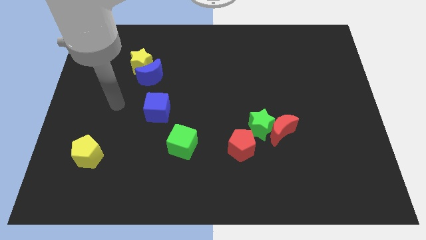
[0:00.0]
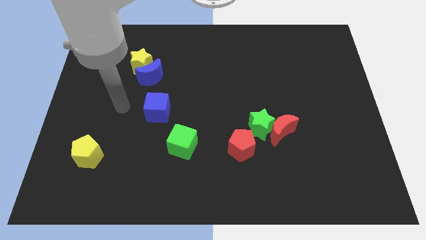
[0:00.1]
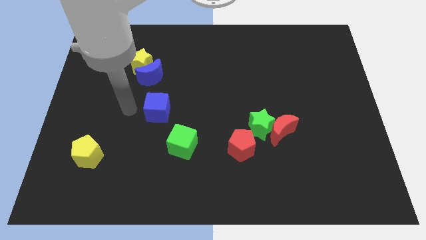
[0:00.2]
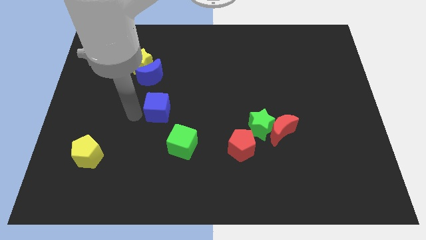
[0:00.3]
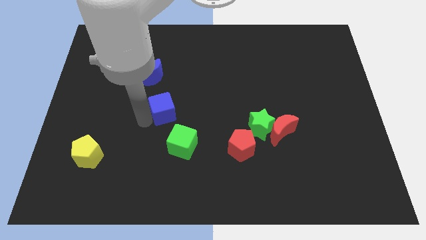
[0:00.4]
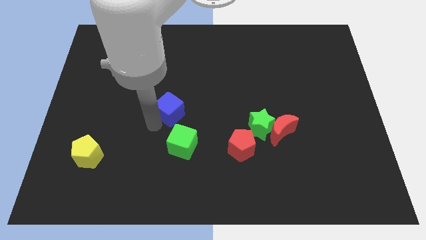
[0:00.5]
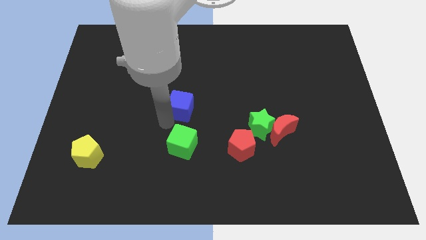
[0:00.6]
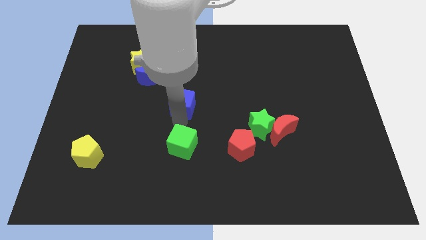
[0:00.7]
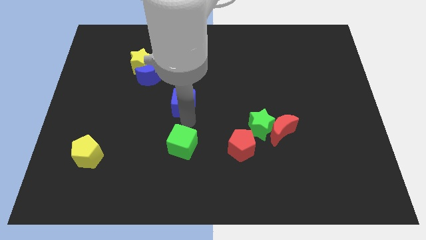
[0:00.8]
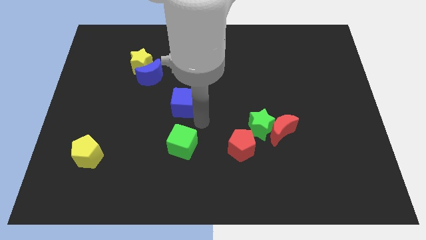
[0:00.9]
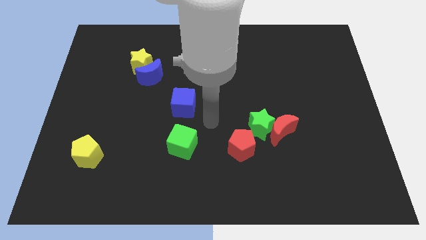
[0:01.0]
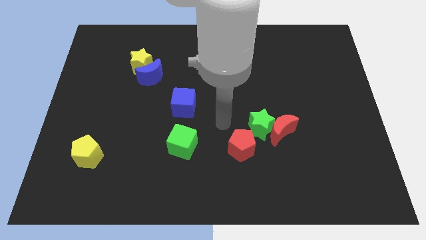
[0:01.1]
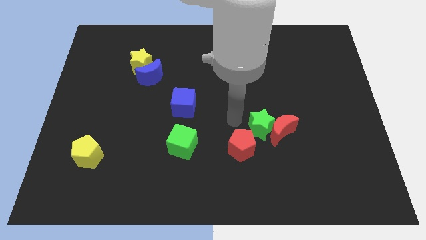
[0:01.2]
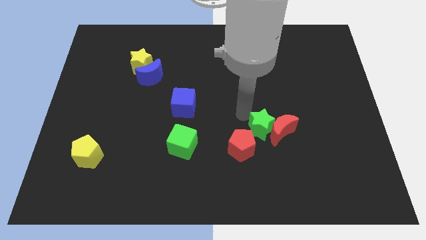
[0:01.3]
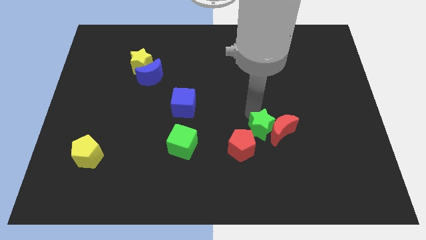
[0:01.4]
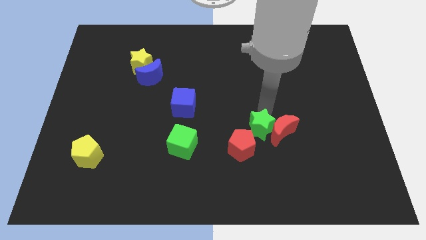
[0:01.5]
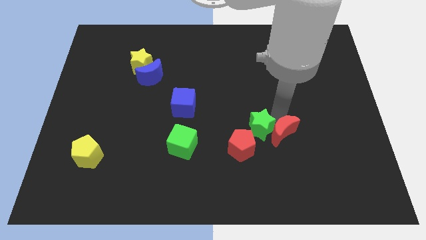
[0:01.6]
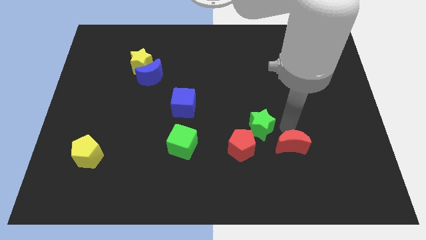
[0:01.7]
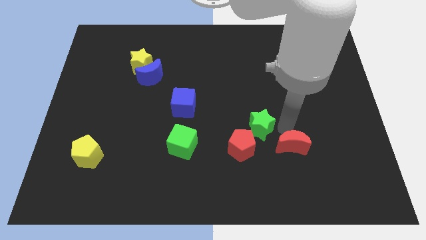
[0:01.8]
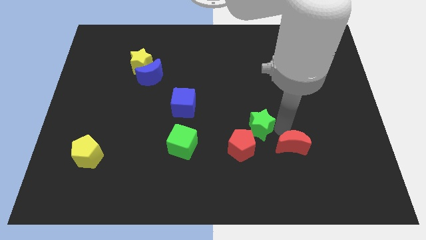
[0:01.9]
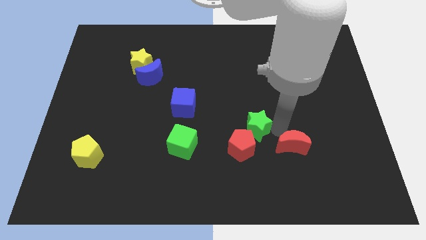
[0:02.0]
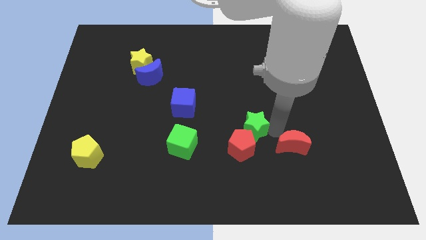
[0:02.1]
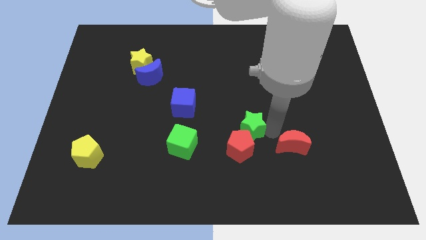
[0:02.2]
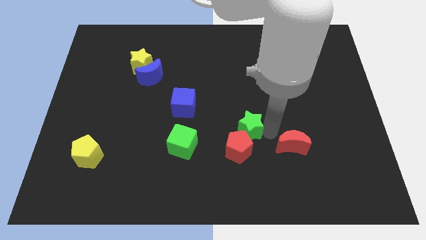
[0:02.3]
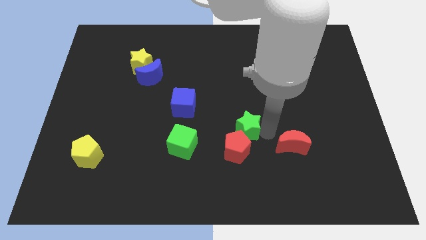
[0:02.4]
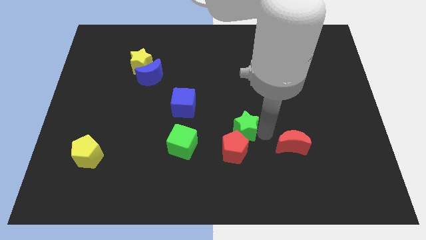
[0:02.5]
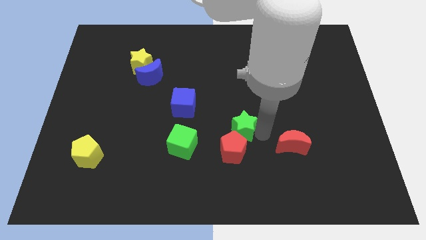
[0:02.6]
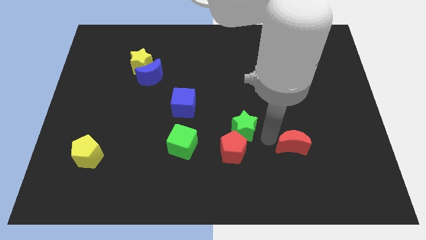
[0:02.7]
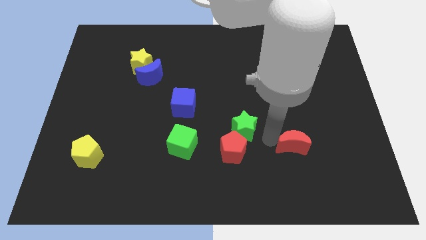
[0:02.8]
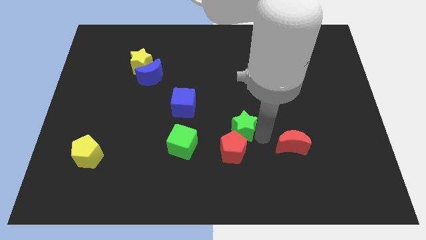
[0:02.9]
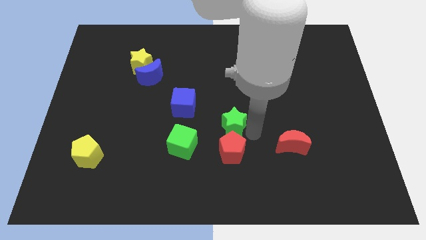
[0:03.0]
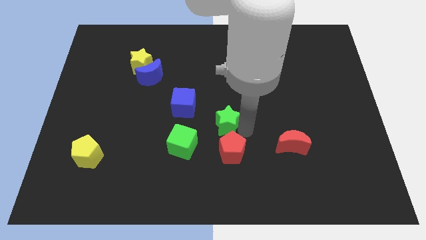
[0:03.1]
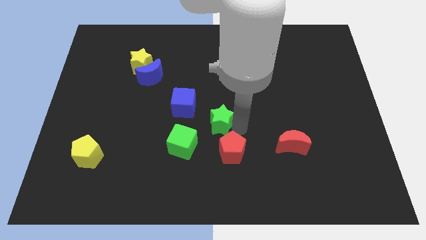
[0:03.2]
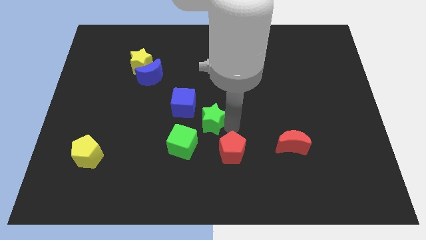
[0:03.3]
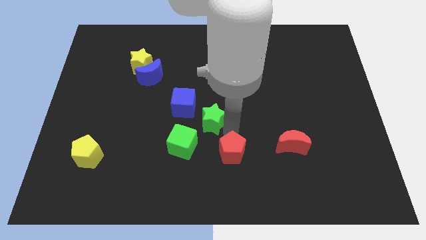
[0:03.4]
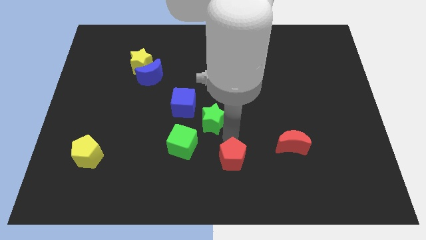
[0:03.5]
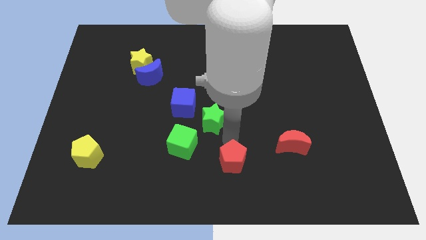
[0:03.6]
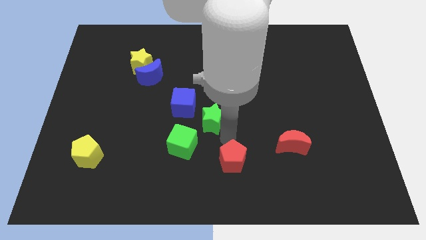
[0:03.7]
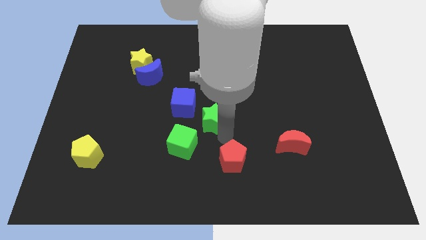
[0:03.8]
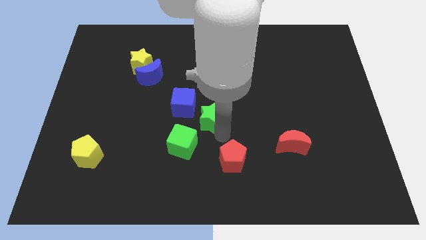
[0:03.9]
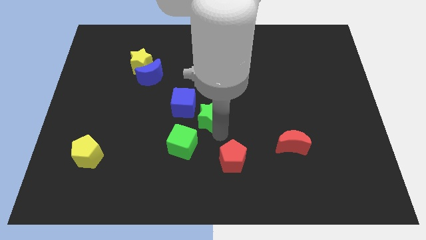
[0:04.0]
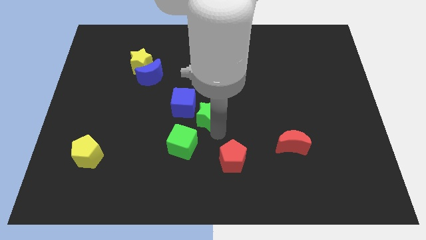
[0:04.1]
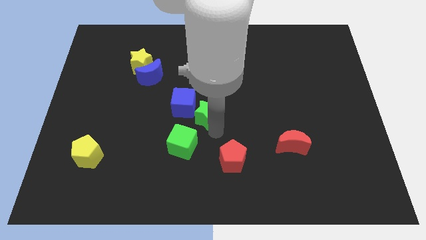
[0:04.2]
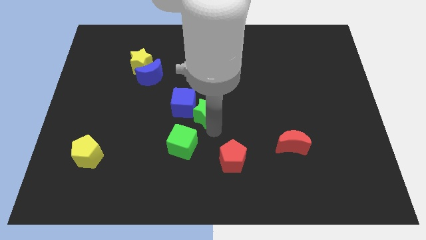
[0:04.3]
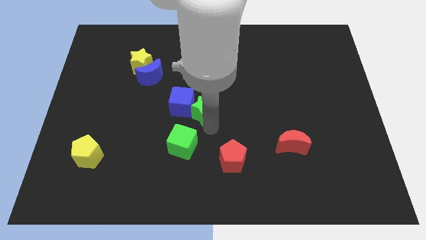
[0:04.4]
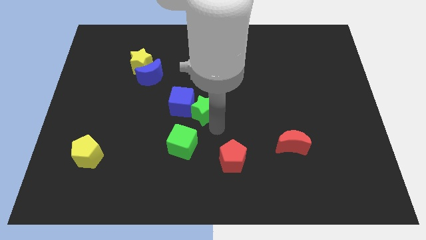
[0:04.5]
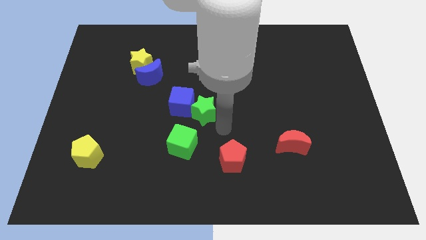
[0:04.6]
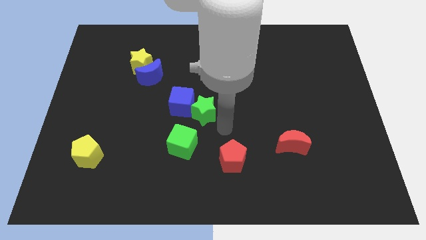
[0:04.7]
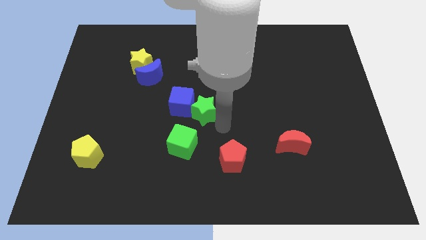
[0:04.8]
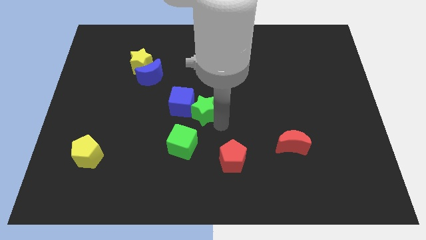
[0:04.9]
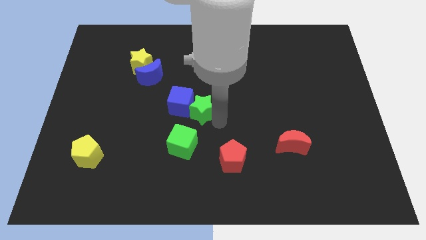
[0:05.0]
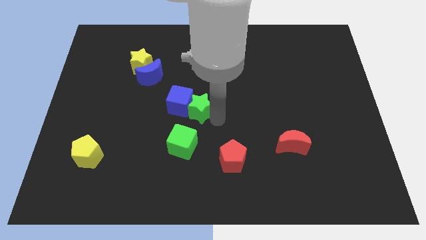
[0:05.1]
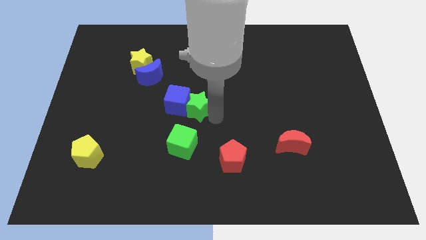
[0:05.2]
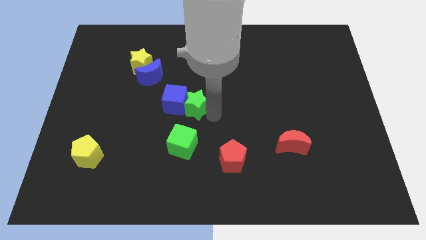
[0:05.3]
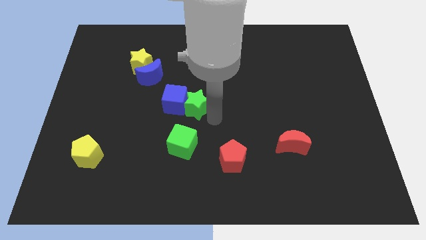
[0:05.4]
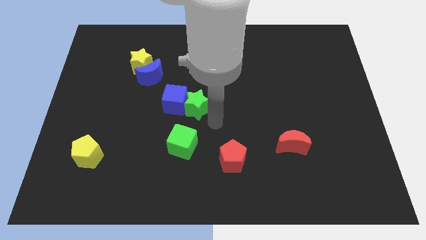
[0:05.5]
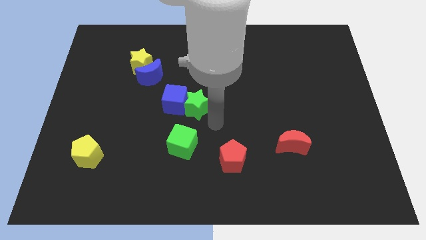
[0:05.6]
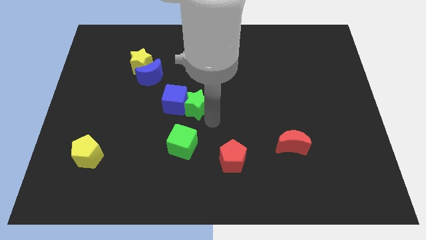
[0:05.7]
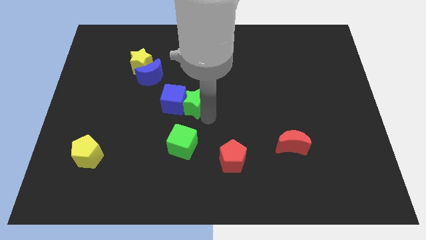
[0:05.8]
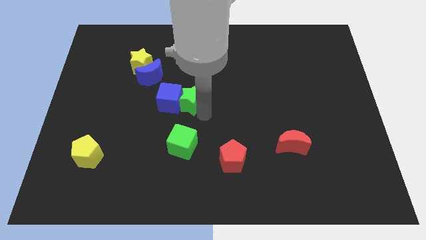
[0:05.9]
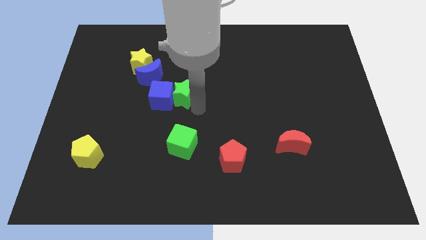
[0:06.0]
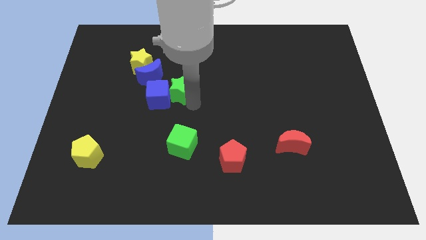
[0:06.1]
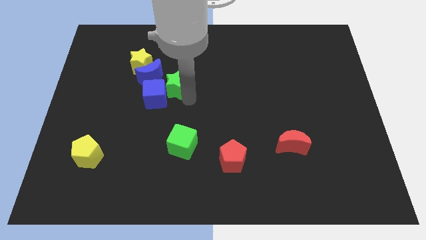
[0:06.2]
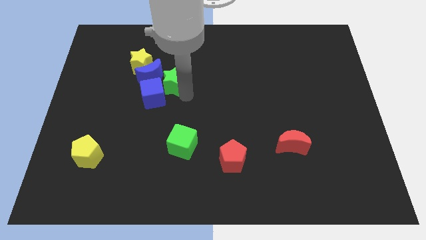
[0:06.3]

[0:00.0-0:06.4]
move the green star next to the blue moon

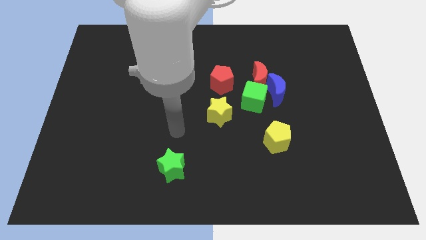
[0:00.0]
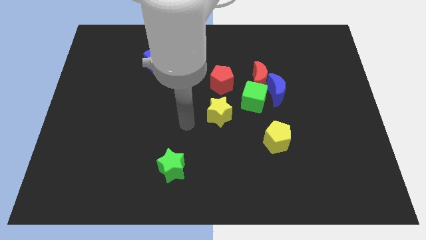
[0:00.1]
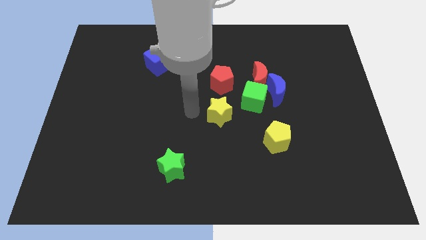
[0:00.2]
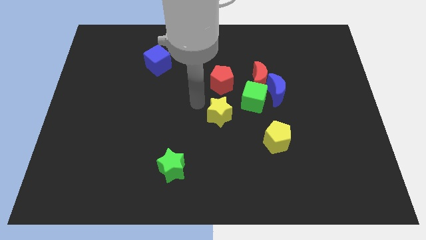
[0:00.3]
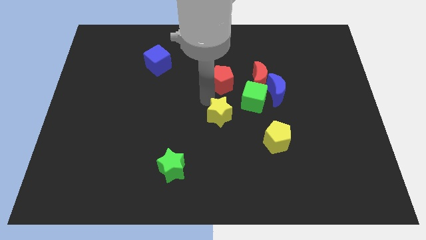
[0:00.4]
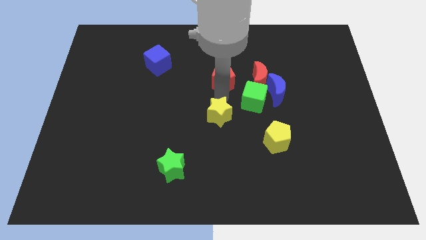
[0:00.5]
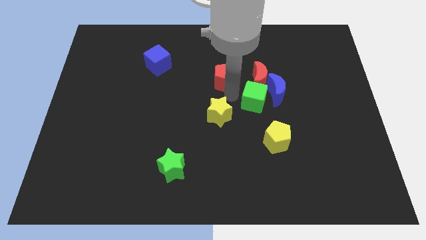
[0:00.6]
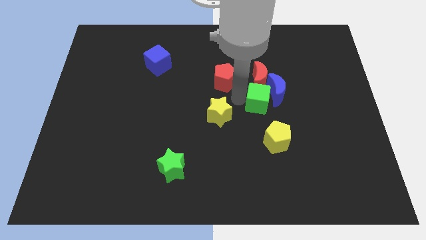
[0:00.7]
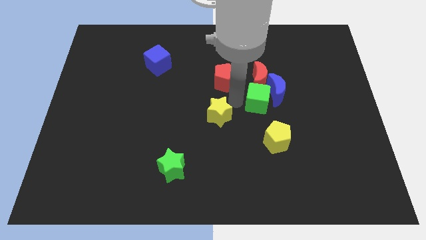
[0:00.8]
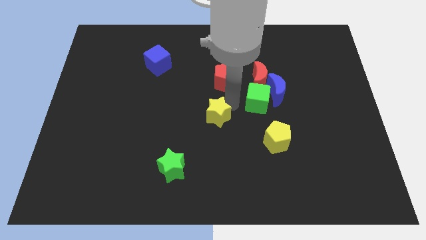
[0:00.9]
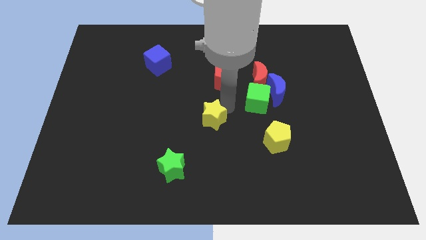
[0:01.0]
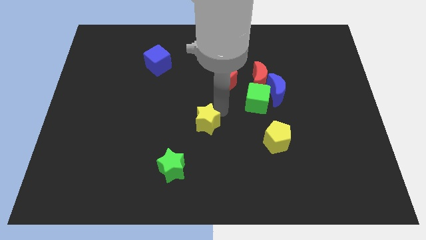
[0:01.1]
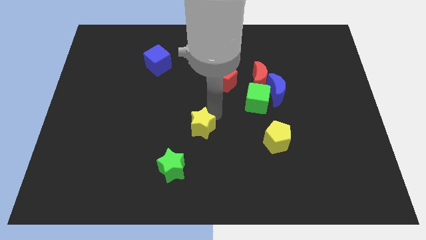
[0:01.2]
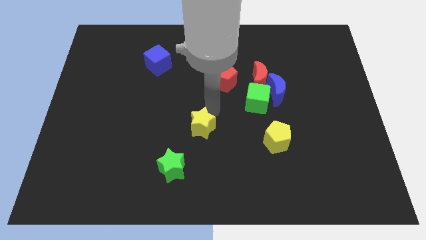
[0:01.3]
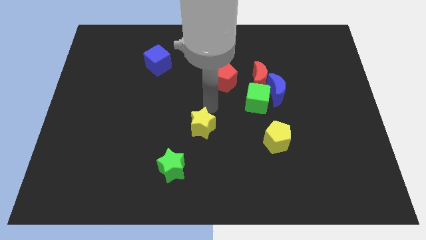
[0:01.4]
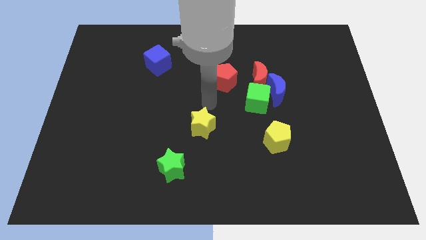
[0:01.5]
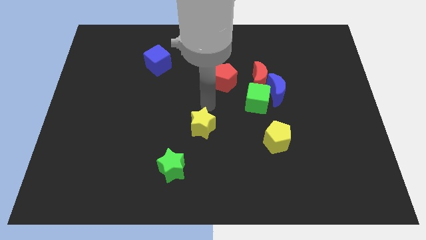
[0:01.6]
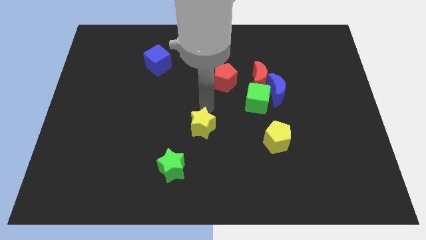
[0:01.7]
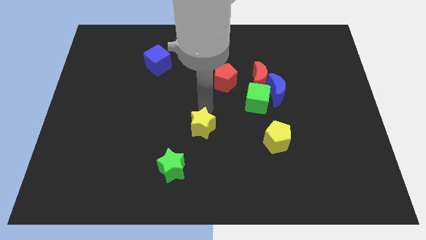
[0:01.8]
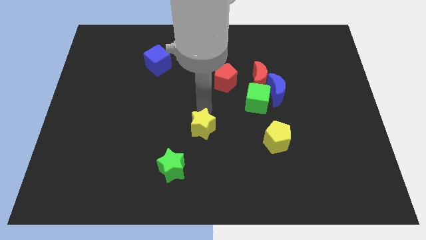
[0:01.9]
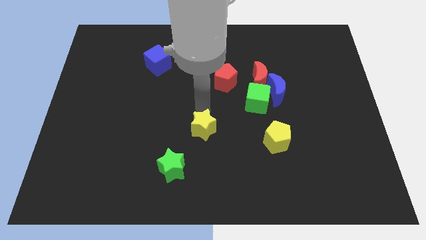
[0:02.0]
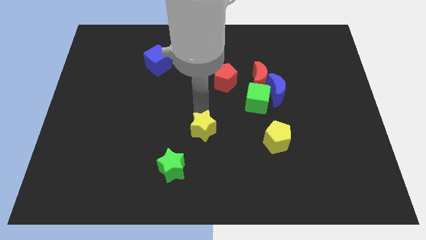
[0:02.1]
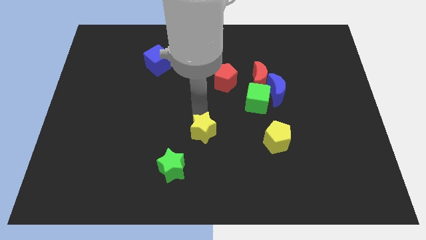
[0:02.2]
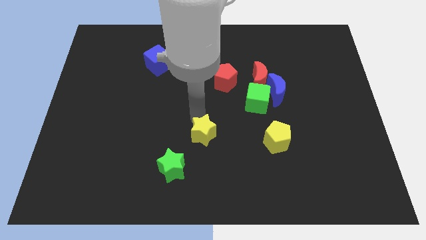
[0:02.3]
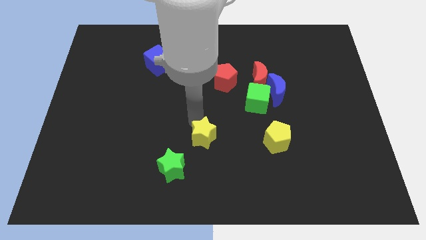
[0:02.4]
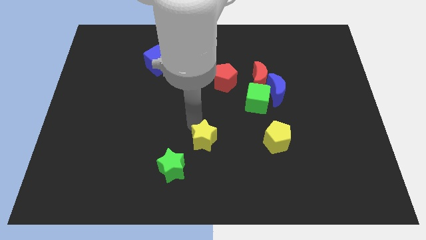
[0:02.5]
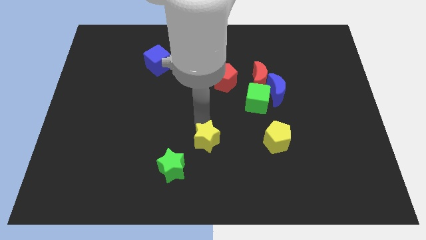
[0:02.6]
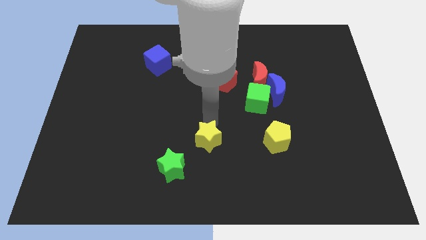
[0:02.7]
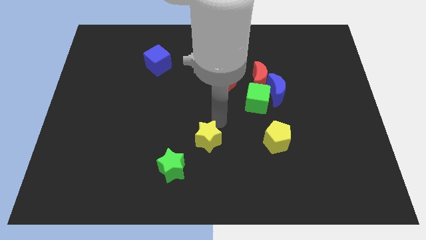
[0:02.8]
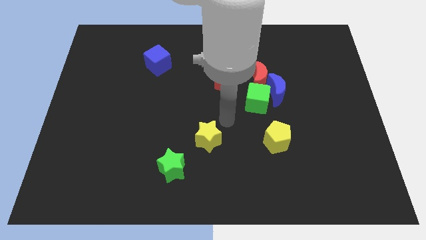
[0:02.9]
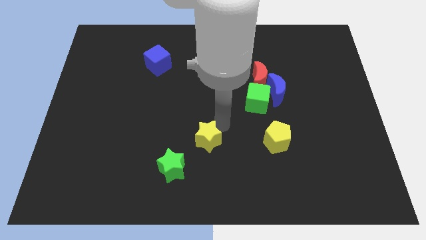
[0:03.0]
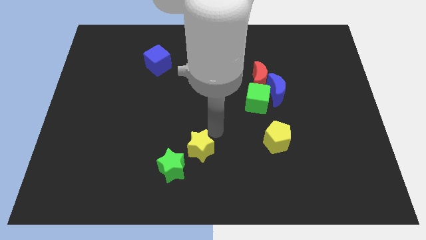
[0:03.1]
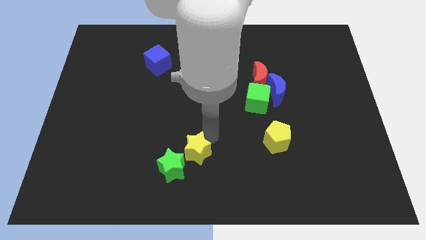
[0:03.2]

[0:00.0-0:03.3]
move the yellow star next to the green star
